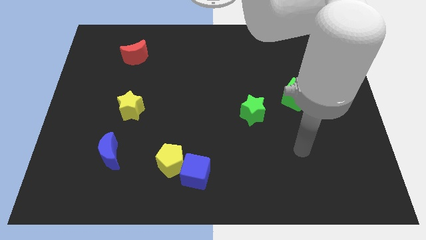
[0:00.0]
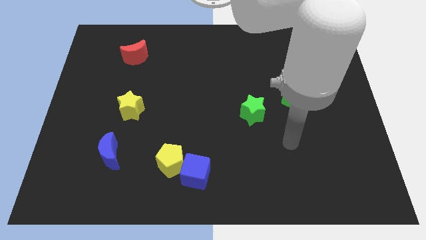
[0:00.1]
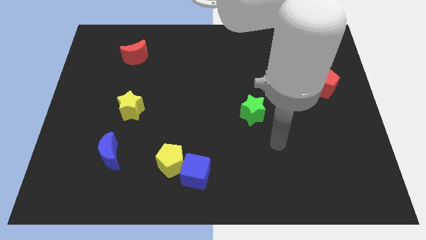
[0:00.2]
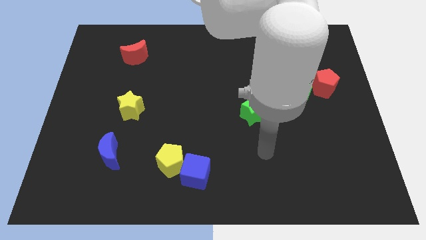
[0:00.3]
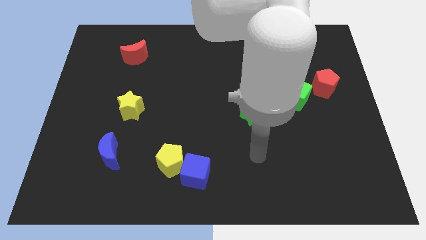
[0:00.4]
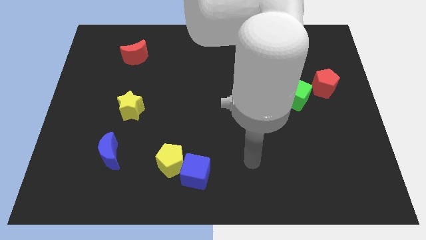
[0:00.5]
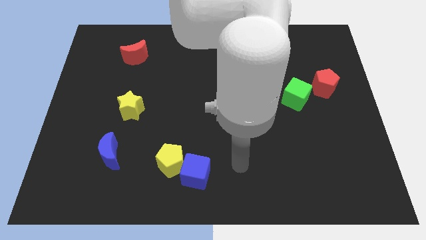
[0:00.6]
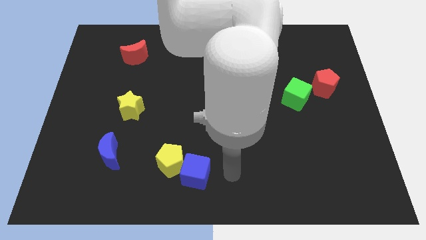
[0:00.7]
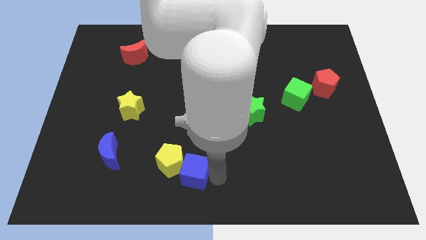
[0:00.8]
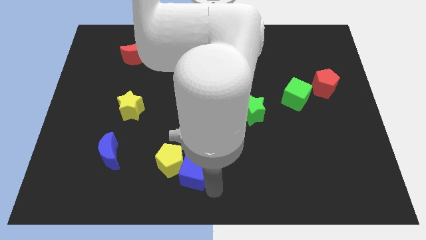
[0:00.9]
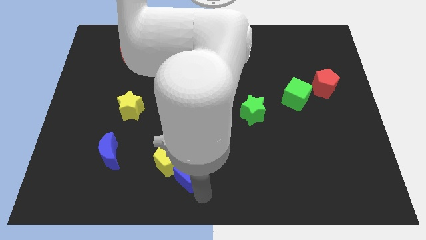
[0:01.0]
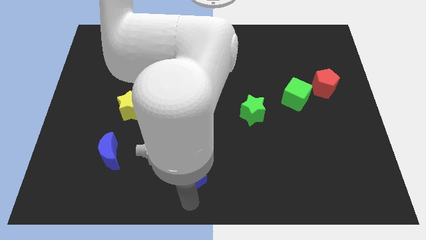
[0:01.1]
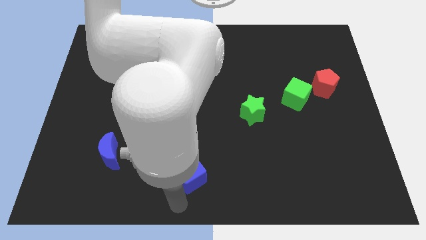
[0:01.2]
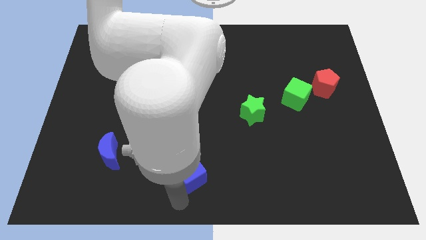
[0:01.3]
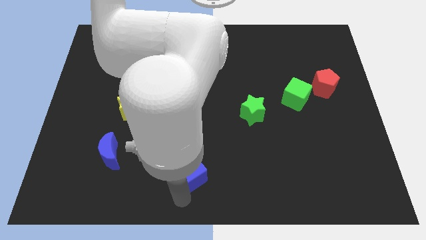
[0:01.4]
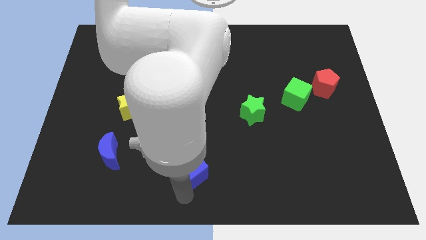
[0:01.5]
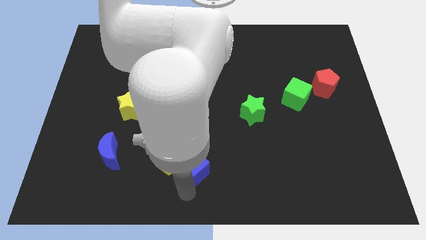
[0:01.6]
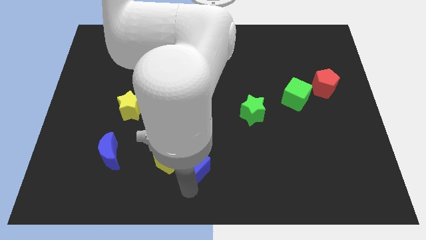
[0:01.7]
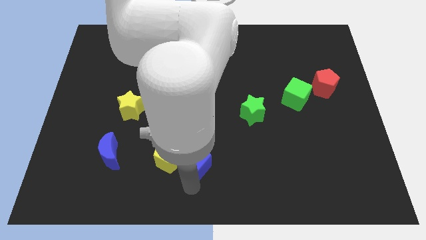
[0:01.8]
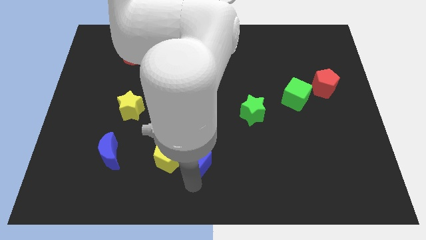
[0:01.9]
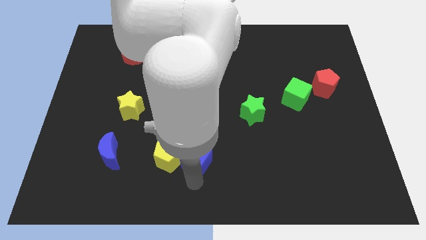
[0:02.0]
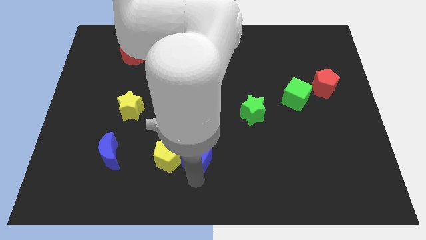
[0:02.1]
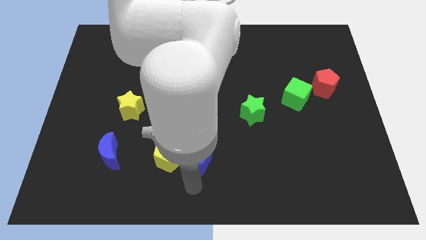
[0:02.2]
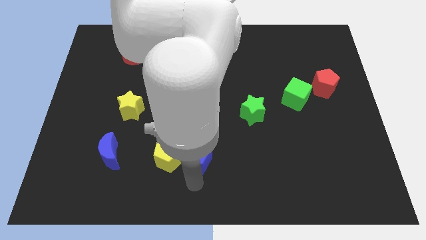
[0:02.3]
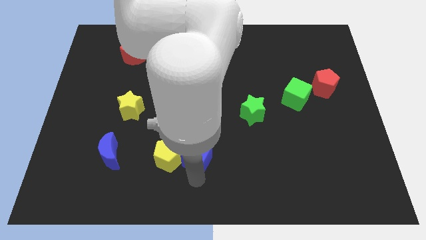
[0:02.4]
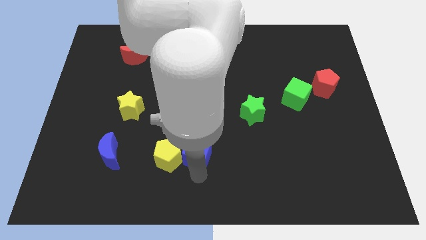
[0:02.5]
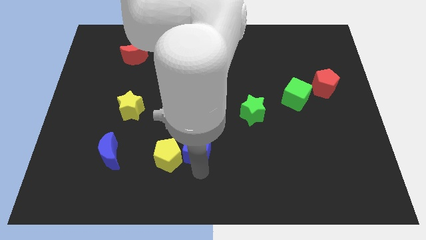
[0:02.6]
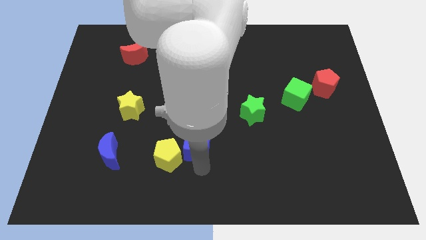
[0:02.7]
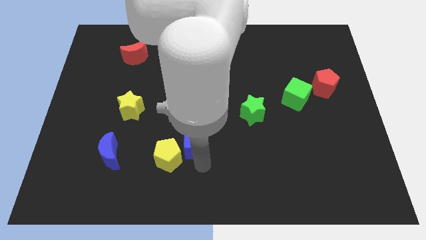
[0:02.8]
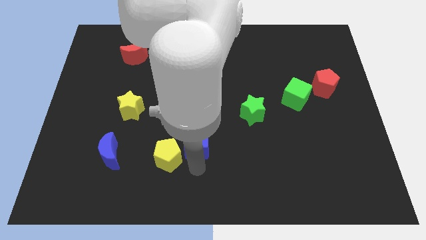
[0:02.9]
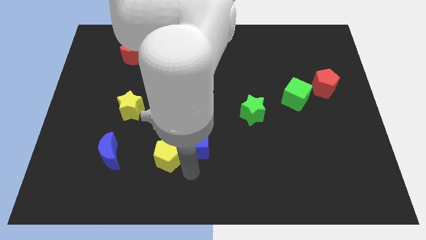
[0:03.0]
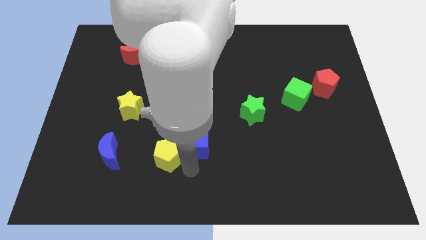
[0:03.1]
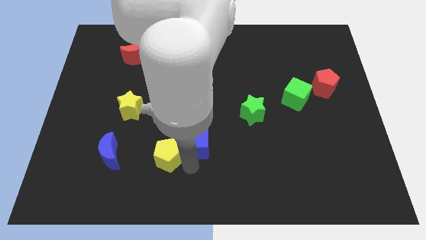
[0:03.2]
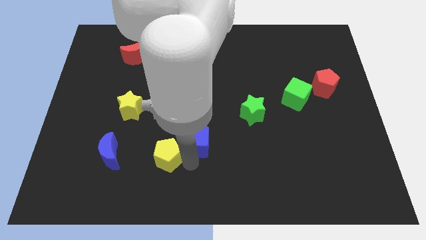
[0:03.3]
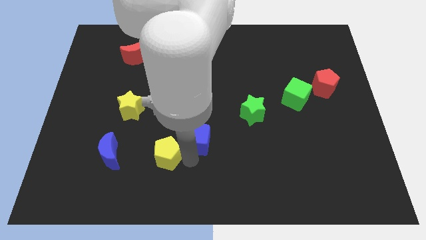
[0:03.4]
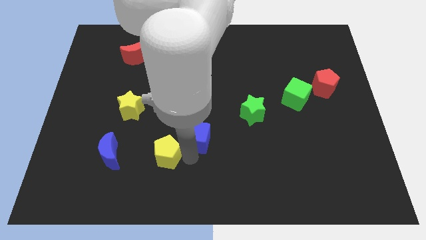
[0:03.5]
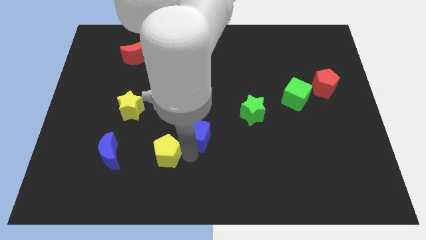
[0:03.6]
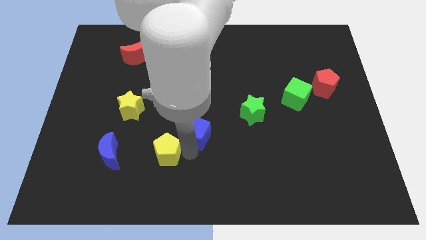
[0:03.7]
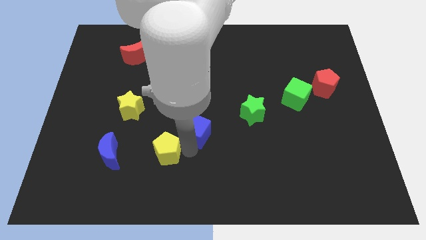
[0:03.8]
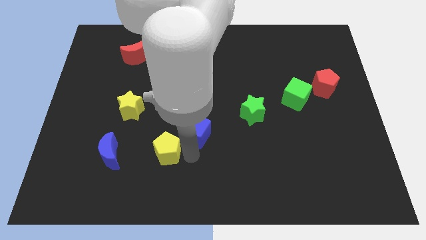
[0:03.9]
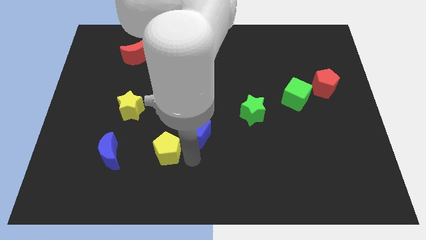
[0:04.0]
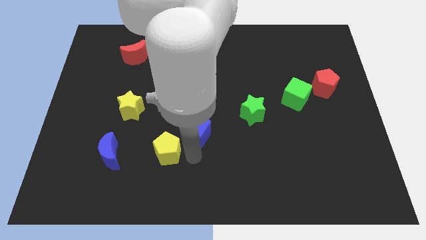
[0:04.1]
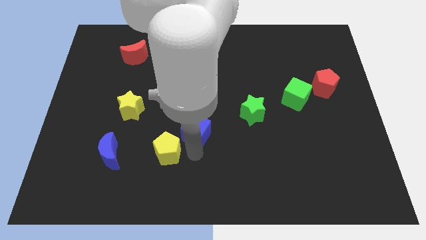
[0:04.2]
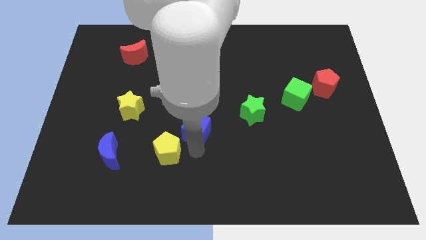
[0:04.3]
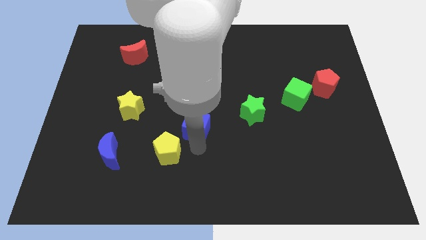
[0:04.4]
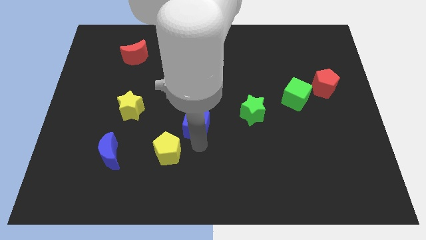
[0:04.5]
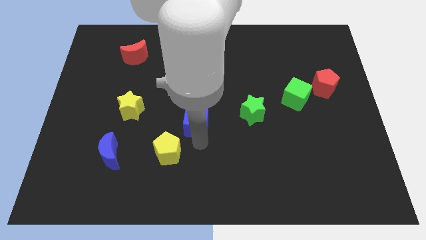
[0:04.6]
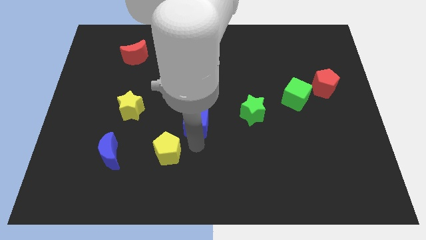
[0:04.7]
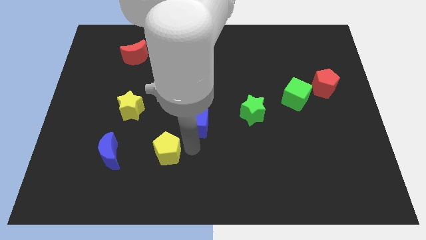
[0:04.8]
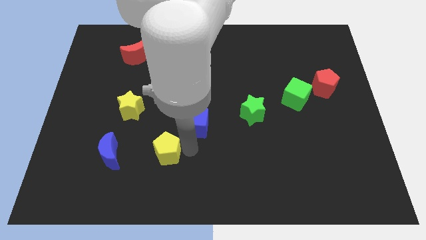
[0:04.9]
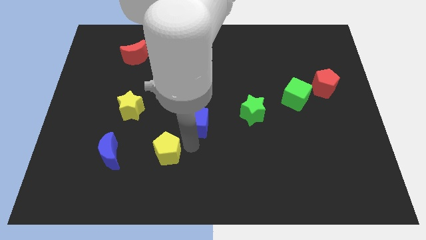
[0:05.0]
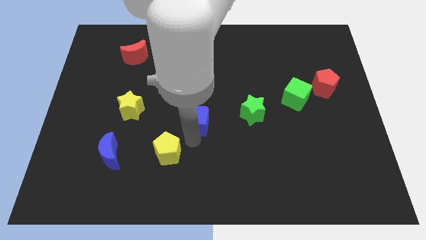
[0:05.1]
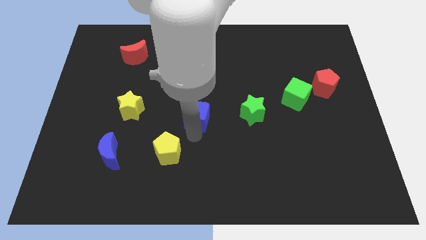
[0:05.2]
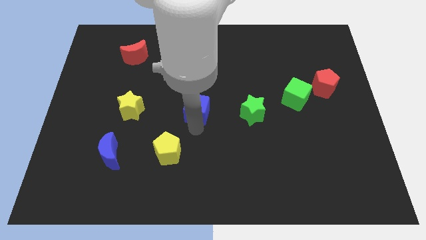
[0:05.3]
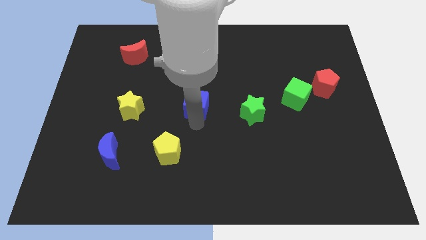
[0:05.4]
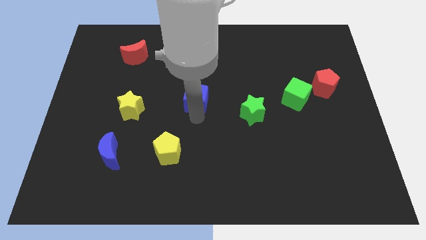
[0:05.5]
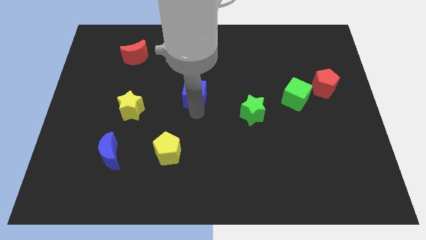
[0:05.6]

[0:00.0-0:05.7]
move the blue cube upwards

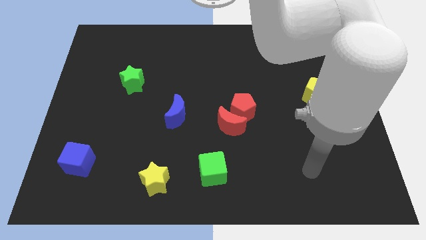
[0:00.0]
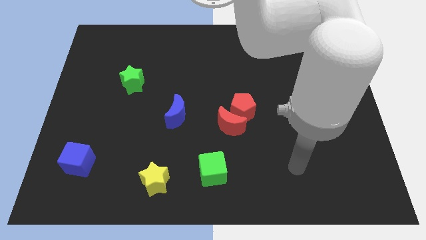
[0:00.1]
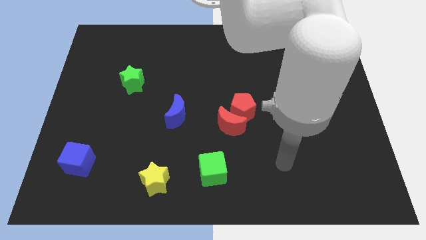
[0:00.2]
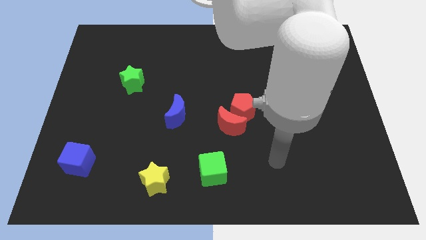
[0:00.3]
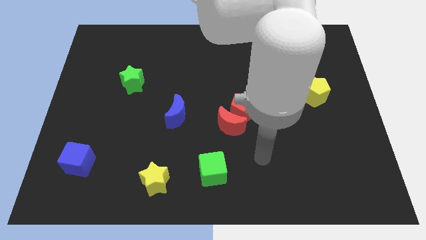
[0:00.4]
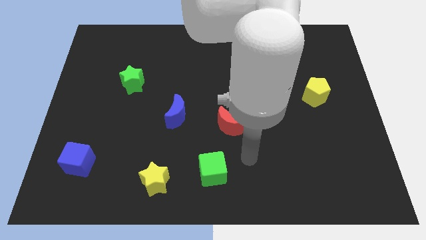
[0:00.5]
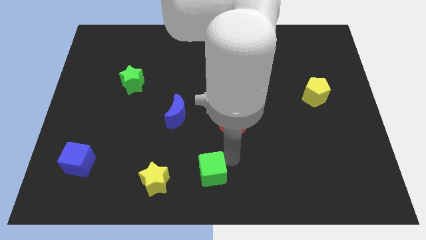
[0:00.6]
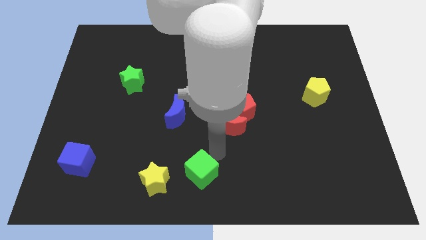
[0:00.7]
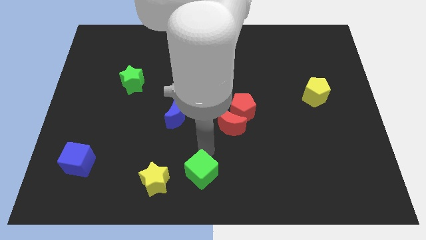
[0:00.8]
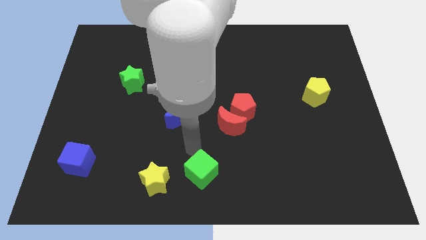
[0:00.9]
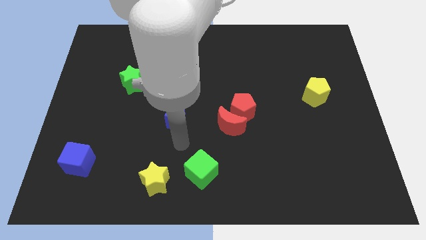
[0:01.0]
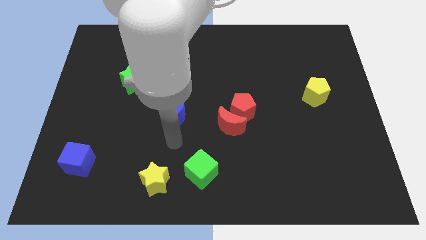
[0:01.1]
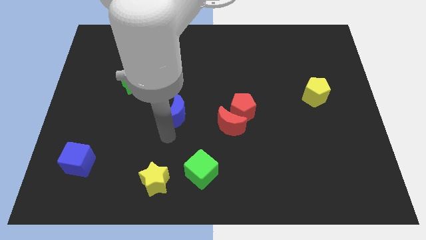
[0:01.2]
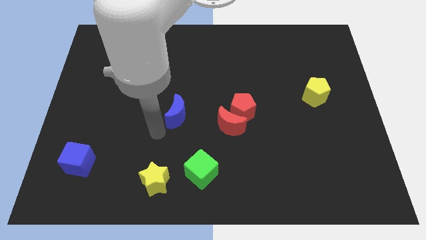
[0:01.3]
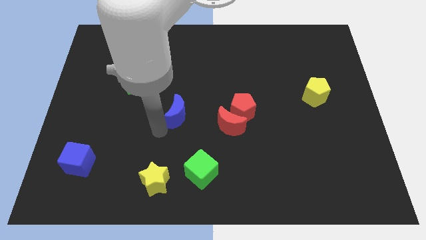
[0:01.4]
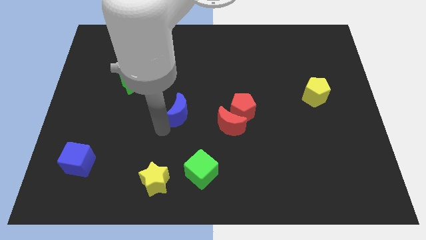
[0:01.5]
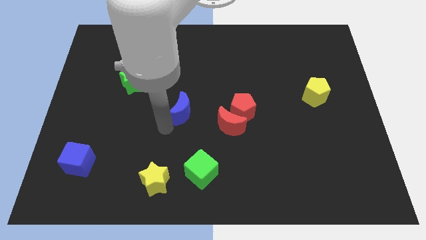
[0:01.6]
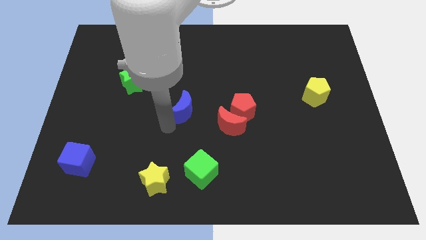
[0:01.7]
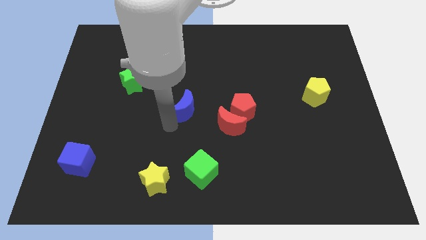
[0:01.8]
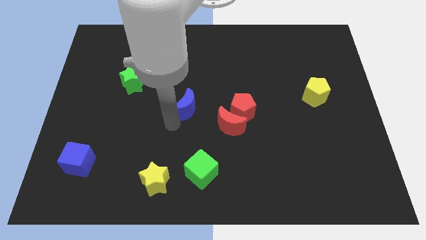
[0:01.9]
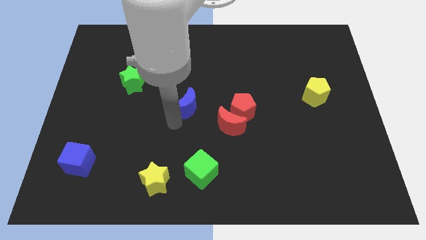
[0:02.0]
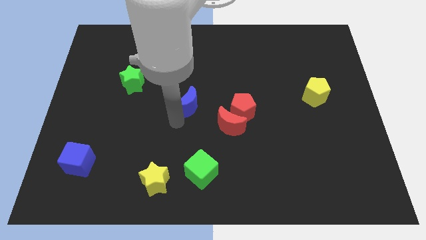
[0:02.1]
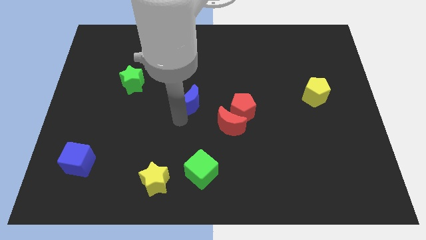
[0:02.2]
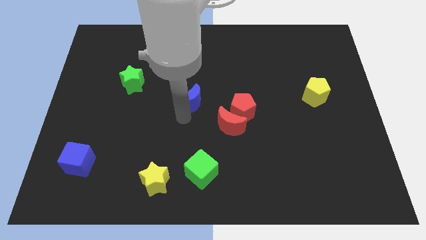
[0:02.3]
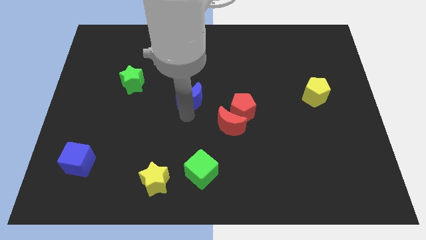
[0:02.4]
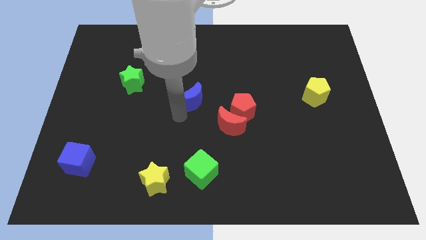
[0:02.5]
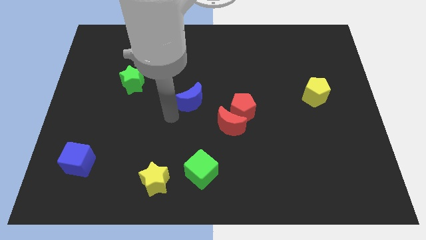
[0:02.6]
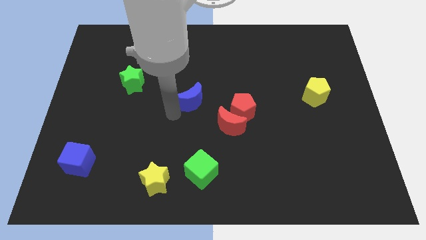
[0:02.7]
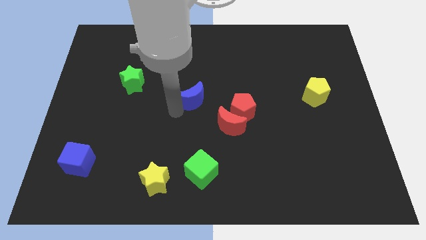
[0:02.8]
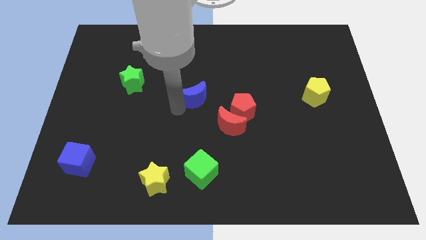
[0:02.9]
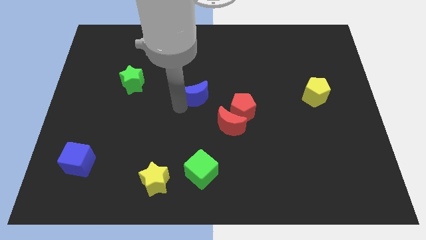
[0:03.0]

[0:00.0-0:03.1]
slide the blue moon upwards and then to the right a little
